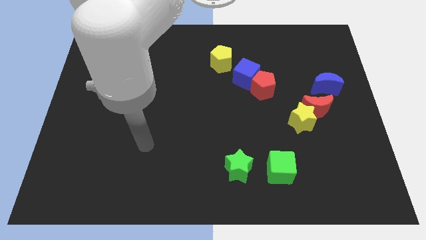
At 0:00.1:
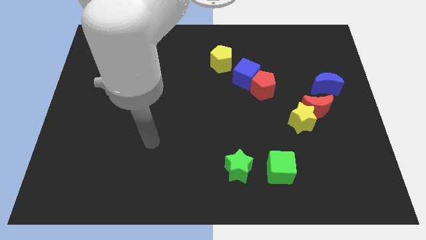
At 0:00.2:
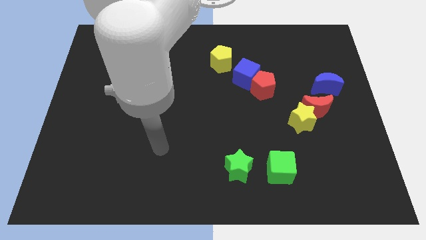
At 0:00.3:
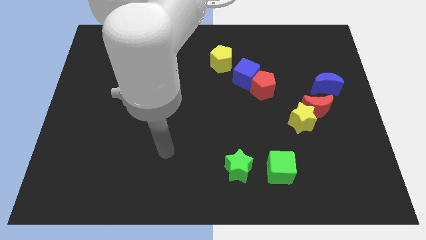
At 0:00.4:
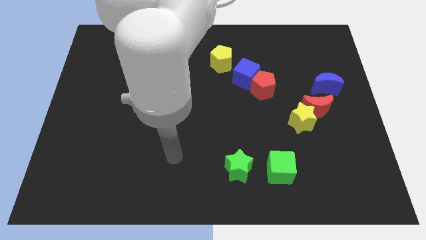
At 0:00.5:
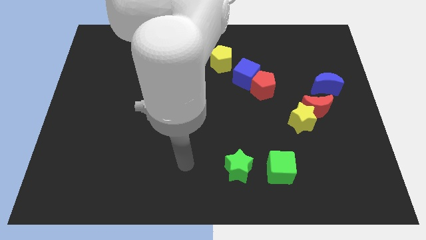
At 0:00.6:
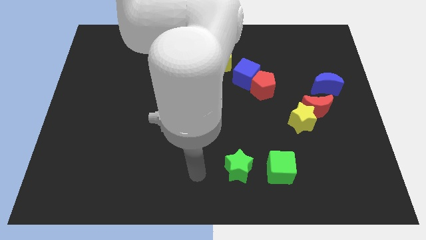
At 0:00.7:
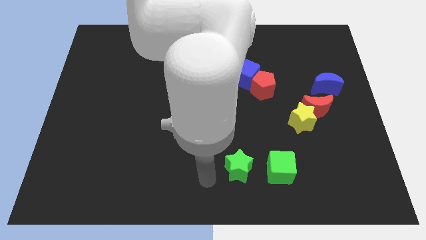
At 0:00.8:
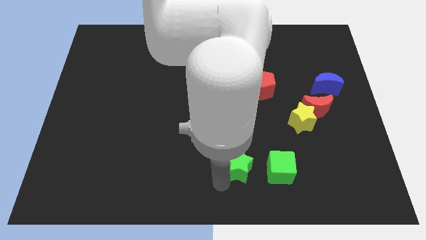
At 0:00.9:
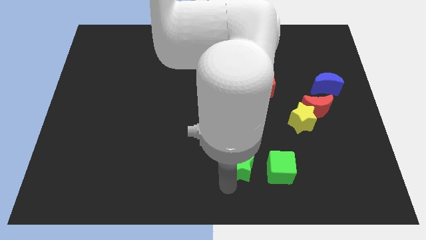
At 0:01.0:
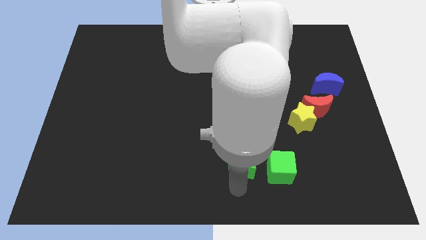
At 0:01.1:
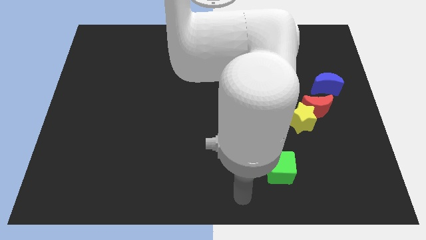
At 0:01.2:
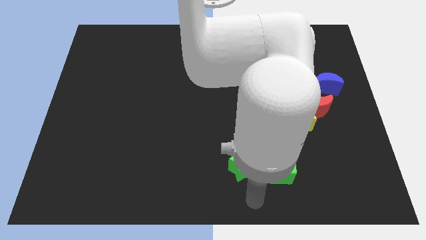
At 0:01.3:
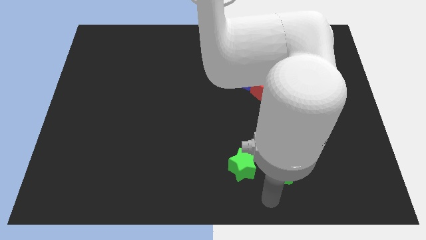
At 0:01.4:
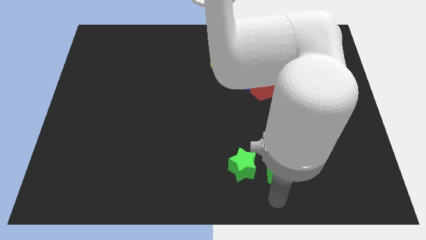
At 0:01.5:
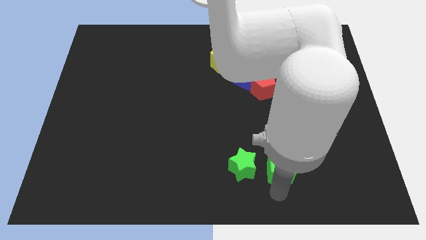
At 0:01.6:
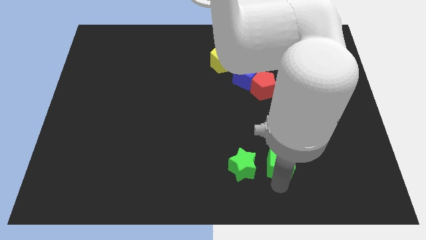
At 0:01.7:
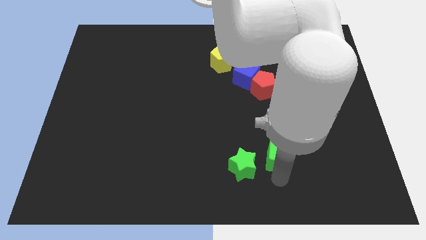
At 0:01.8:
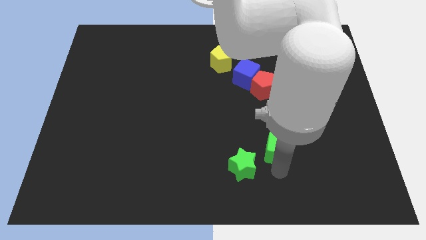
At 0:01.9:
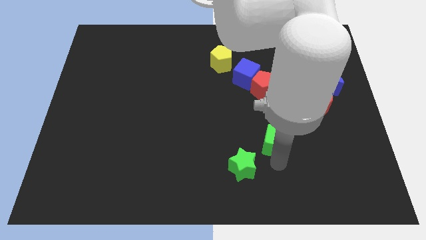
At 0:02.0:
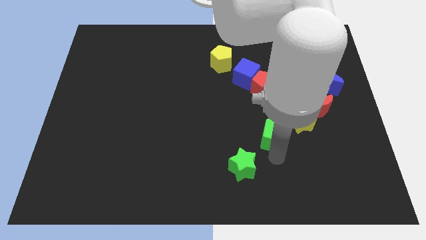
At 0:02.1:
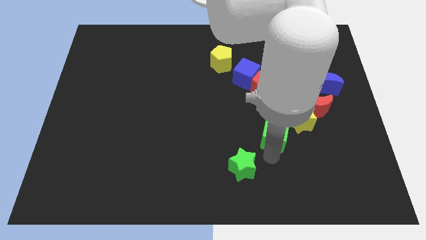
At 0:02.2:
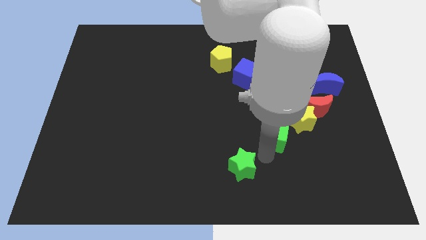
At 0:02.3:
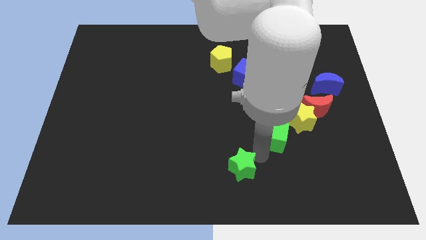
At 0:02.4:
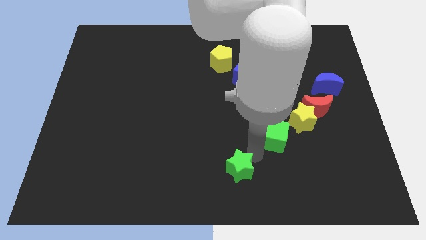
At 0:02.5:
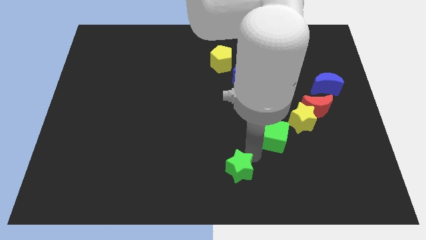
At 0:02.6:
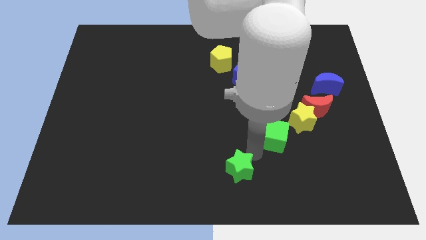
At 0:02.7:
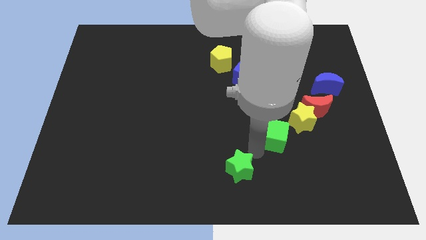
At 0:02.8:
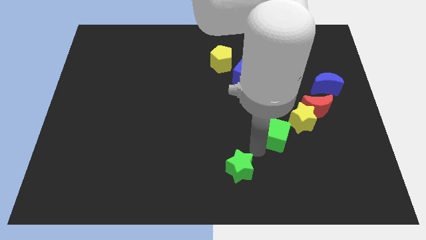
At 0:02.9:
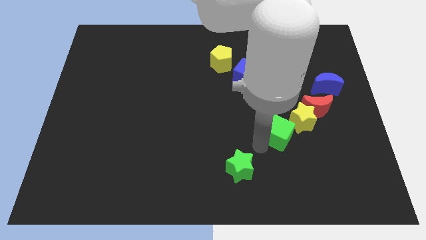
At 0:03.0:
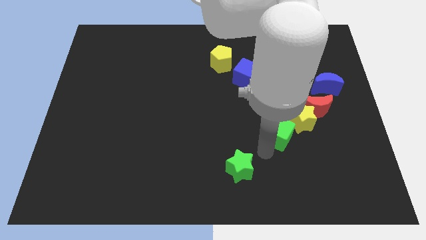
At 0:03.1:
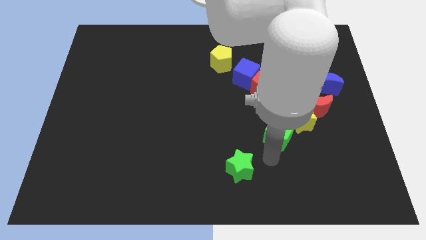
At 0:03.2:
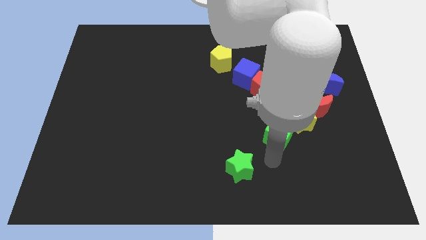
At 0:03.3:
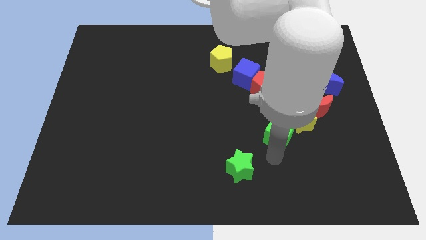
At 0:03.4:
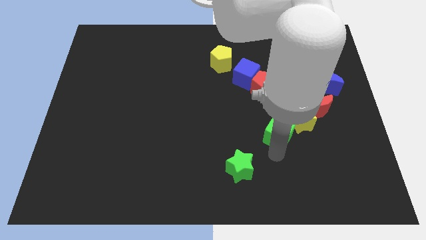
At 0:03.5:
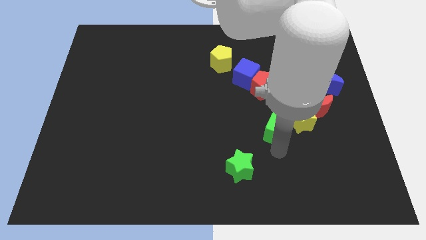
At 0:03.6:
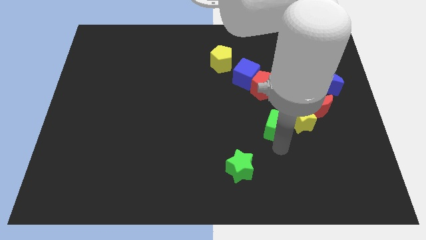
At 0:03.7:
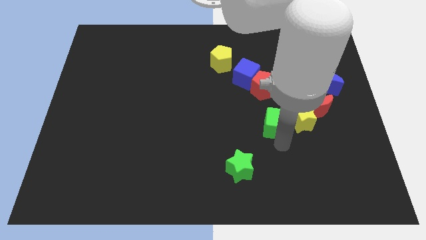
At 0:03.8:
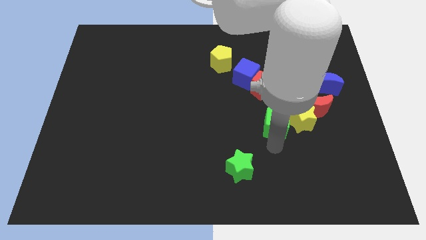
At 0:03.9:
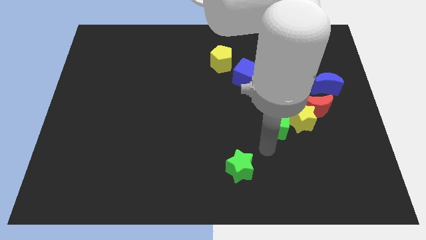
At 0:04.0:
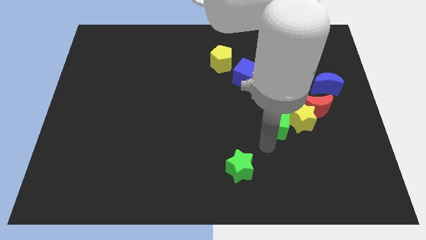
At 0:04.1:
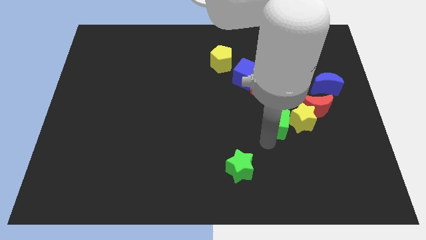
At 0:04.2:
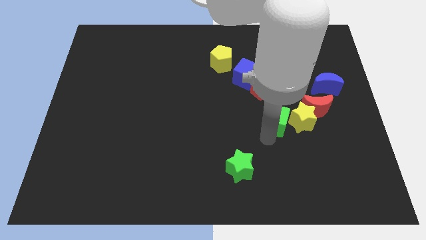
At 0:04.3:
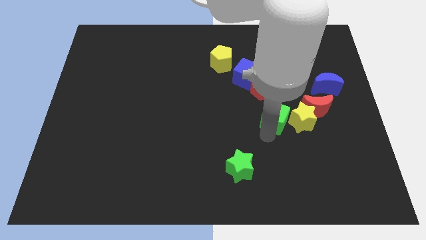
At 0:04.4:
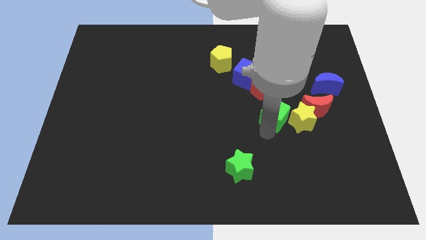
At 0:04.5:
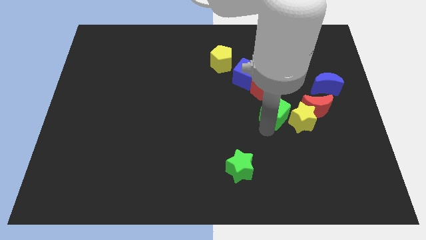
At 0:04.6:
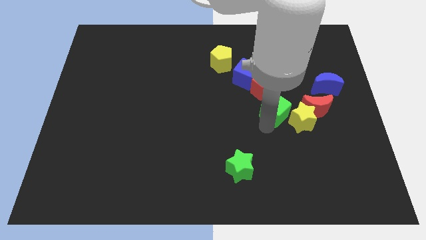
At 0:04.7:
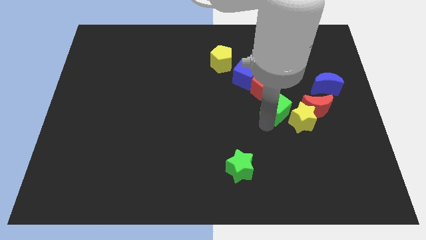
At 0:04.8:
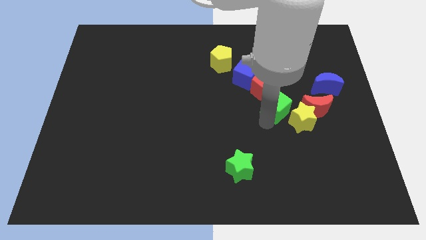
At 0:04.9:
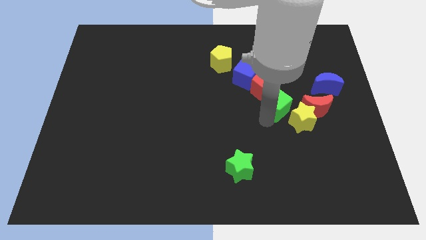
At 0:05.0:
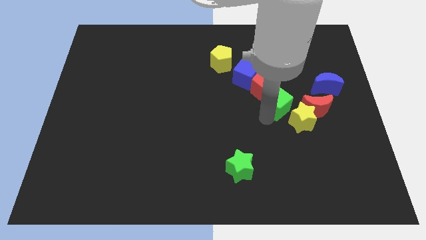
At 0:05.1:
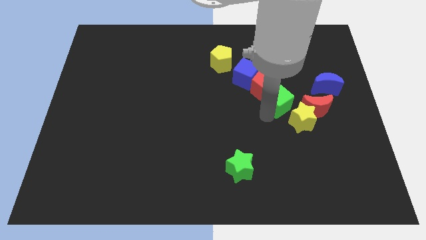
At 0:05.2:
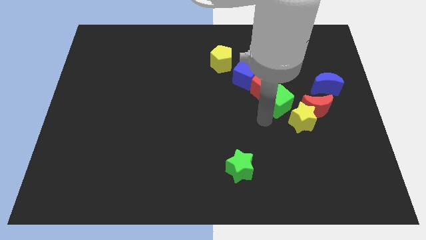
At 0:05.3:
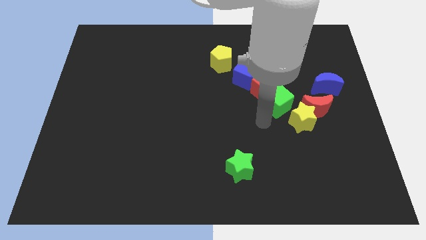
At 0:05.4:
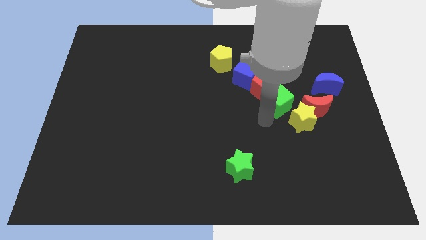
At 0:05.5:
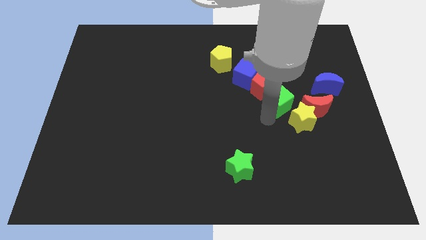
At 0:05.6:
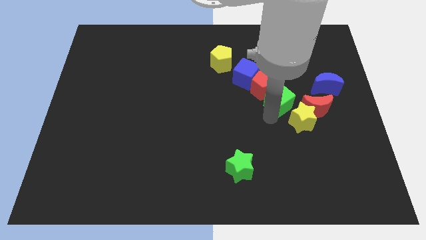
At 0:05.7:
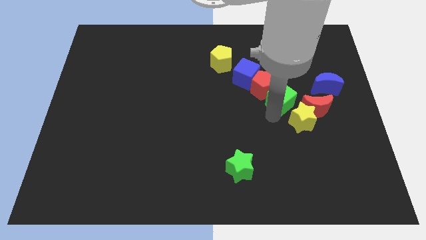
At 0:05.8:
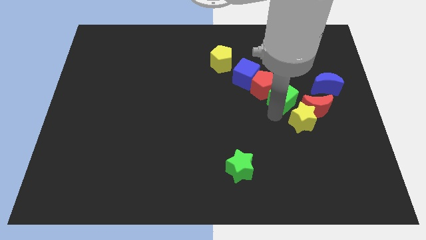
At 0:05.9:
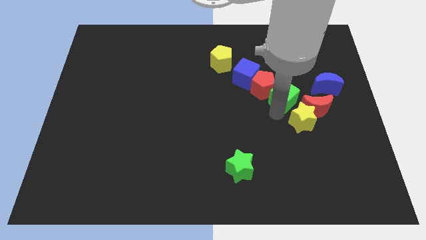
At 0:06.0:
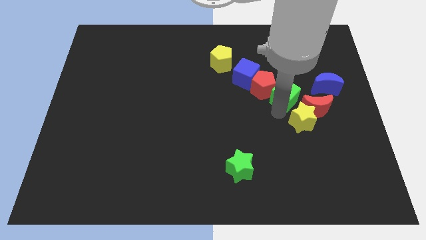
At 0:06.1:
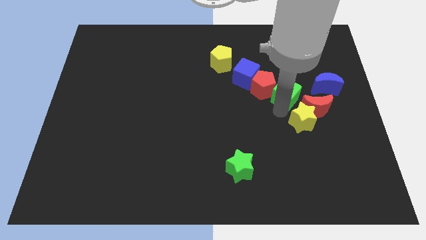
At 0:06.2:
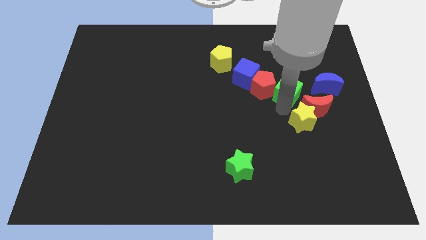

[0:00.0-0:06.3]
push the green cube upwards

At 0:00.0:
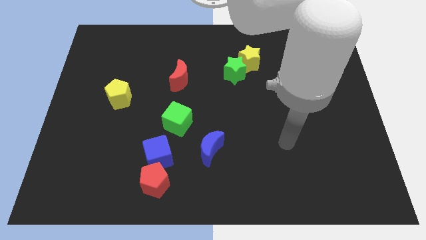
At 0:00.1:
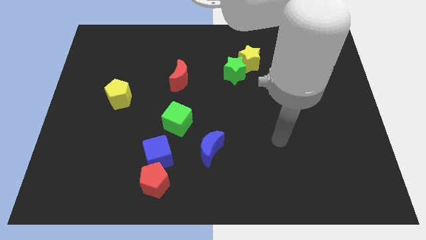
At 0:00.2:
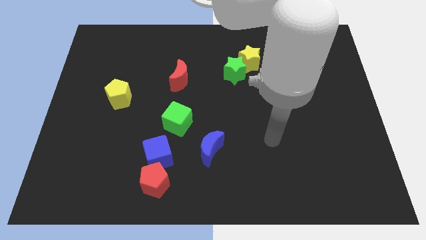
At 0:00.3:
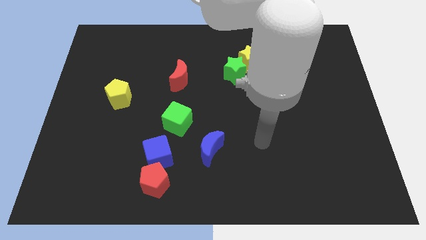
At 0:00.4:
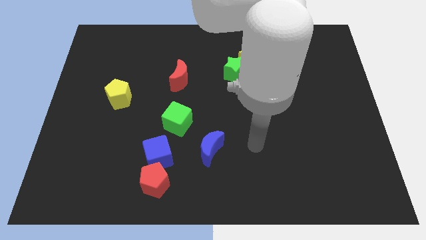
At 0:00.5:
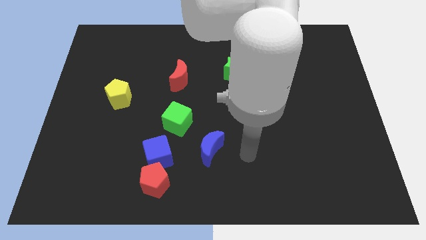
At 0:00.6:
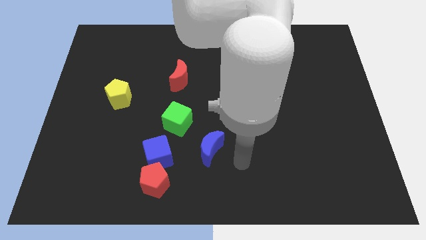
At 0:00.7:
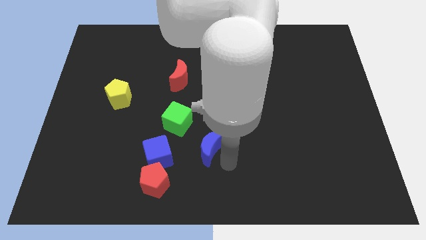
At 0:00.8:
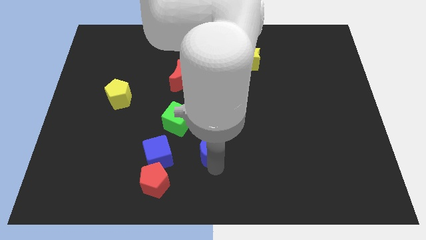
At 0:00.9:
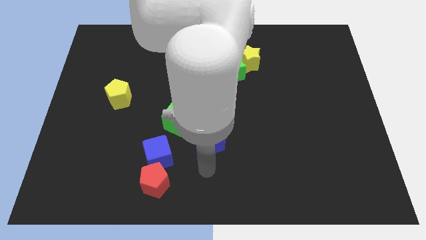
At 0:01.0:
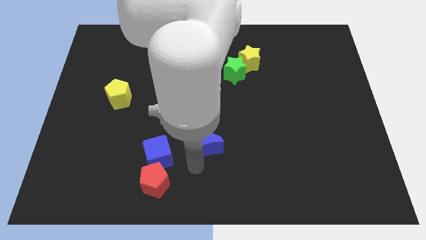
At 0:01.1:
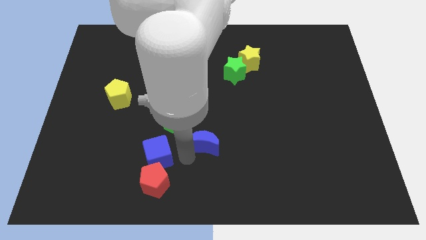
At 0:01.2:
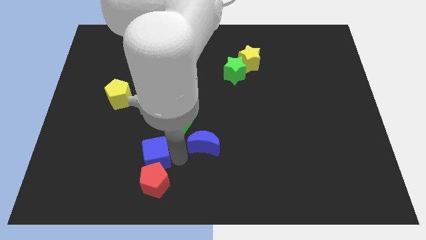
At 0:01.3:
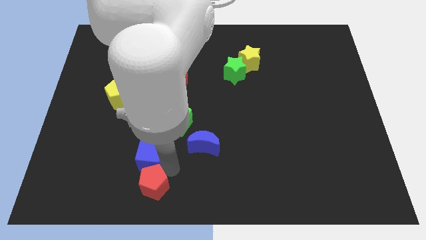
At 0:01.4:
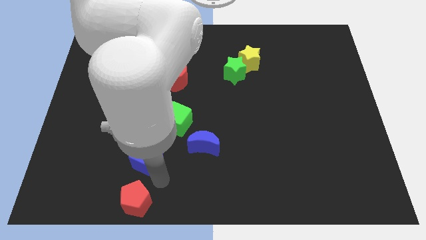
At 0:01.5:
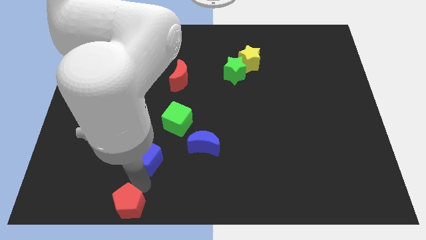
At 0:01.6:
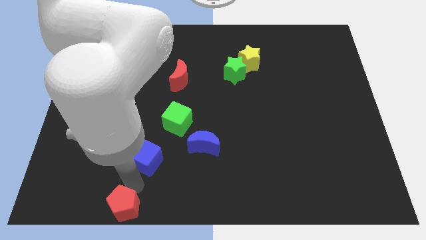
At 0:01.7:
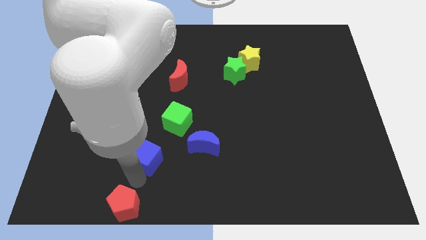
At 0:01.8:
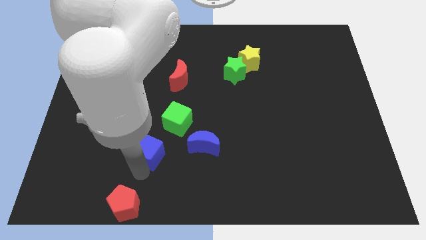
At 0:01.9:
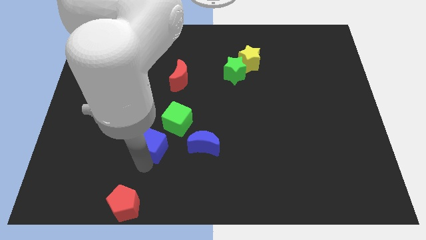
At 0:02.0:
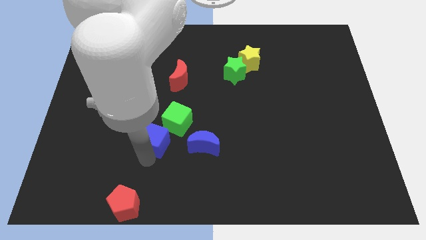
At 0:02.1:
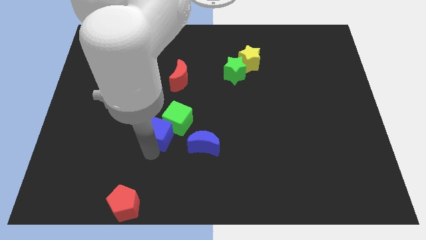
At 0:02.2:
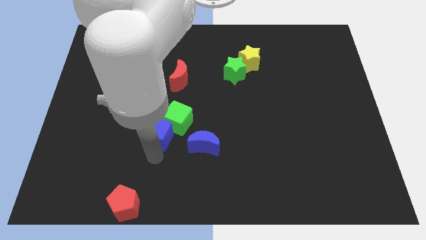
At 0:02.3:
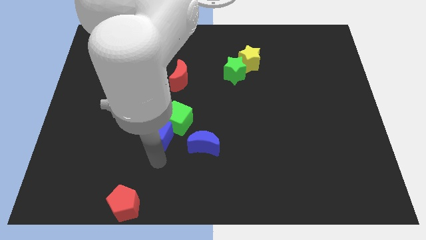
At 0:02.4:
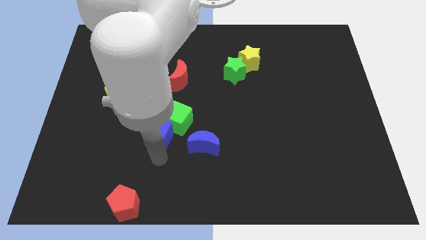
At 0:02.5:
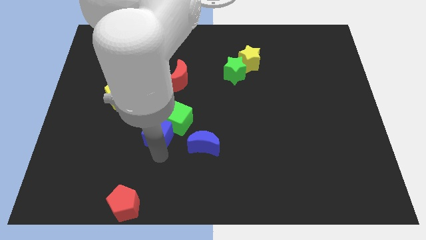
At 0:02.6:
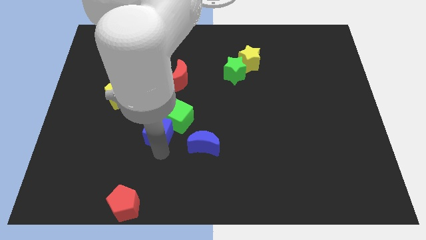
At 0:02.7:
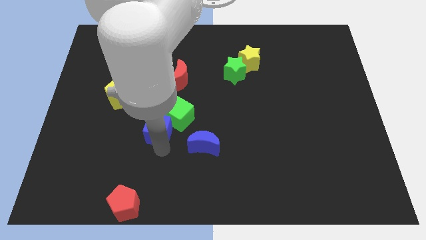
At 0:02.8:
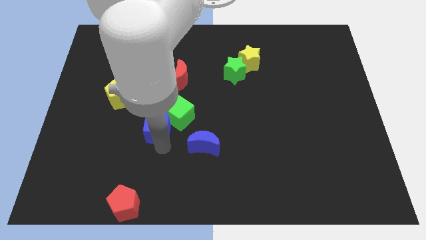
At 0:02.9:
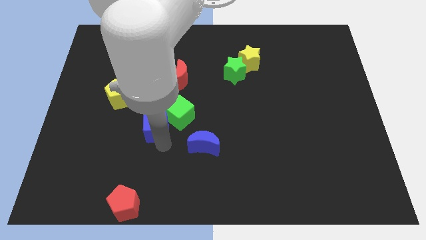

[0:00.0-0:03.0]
move the blue cube somewhat up
